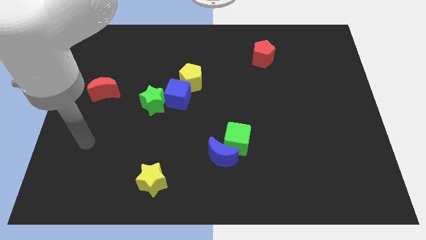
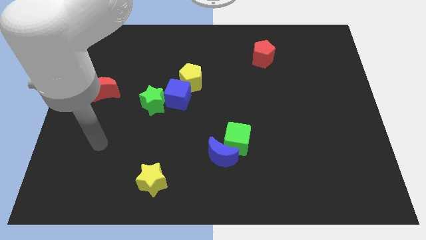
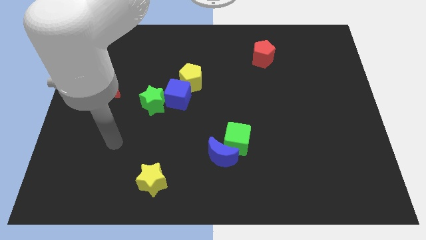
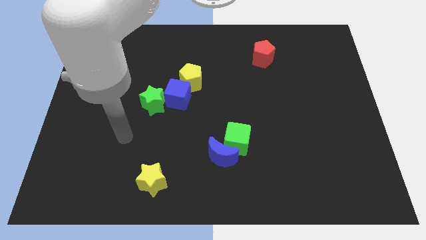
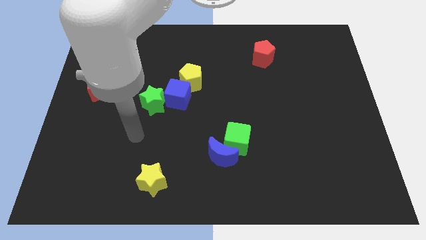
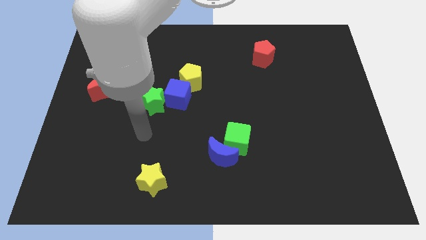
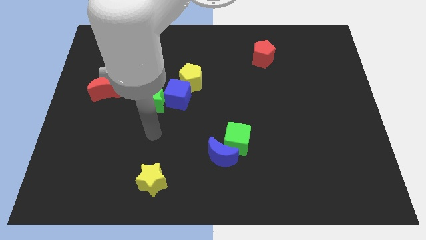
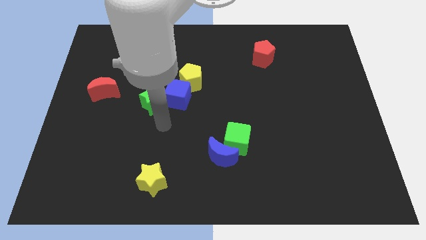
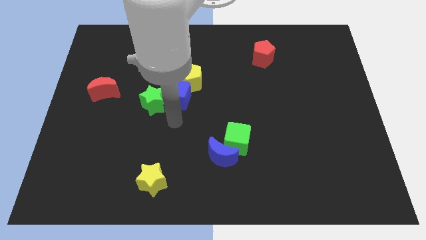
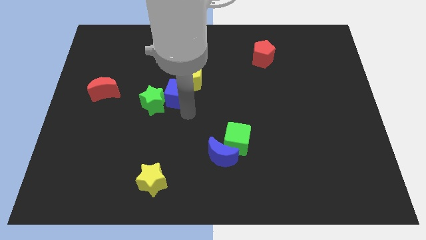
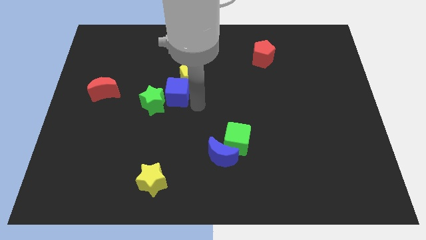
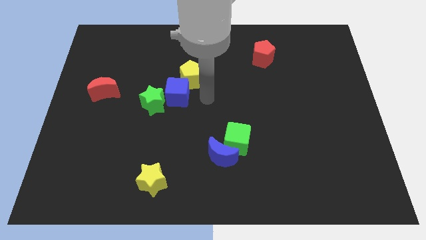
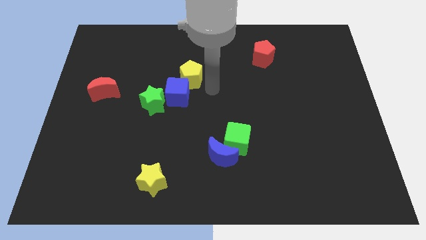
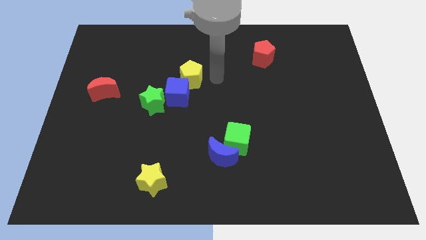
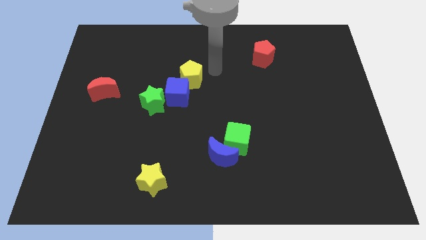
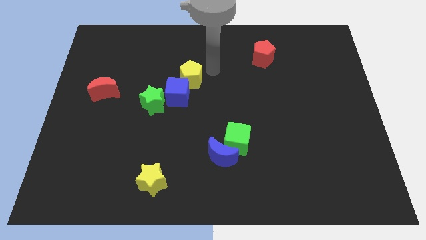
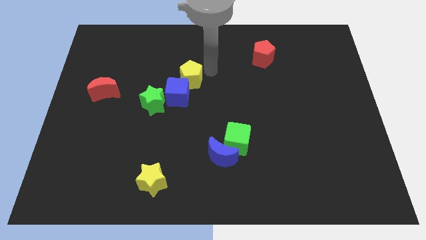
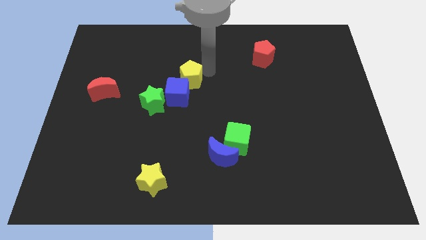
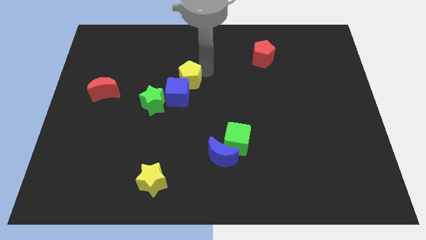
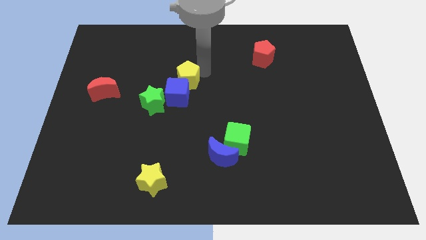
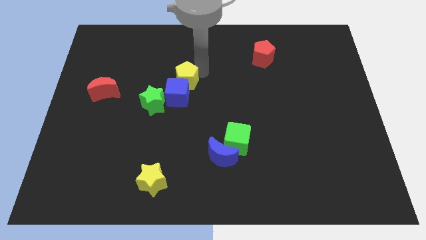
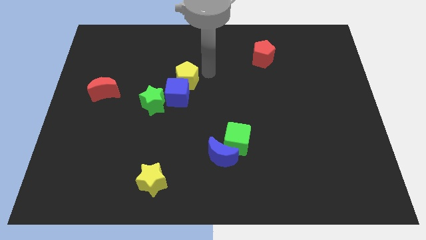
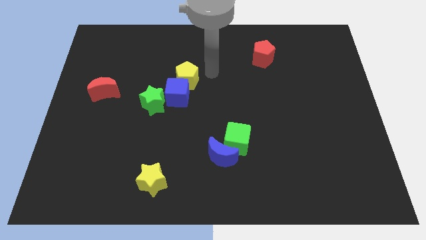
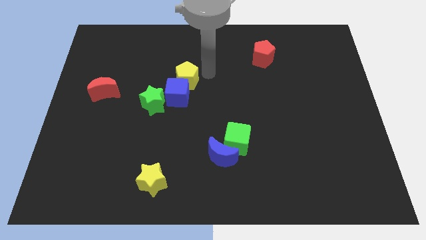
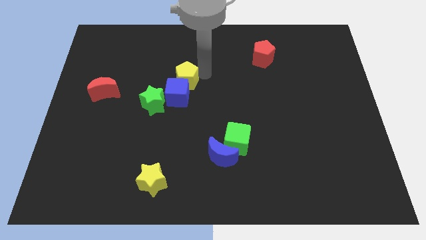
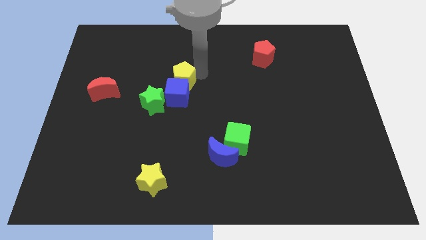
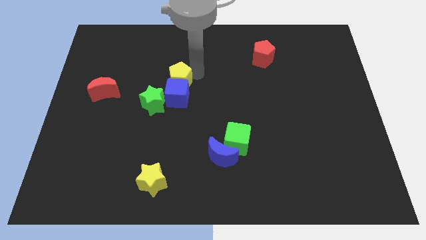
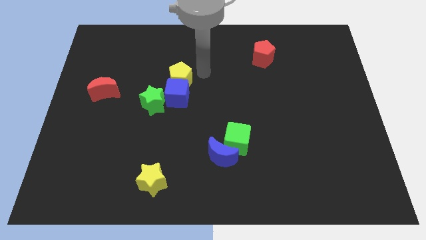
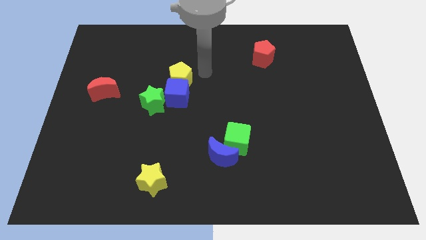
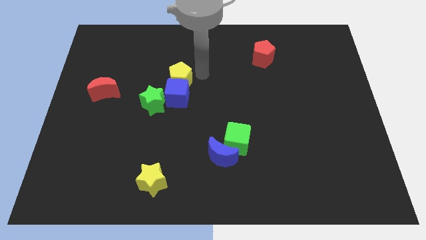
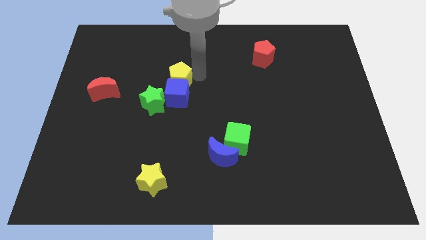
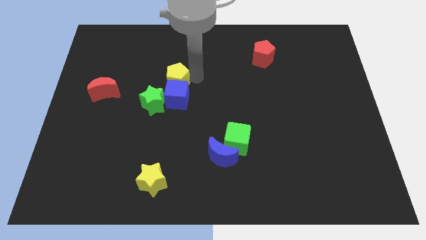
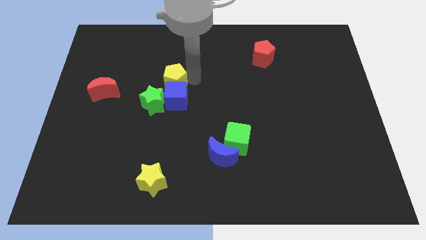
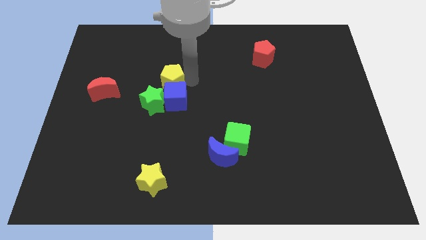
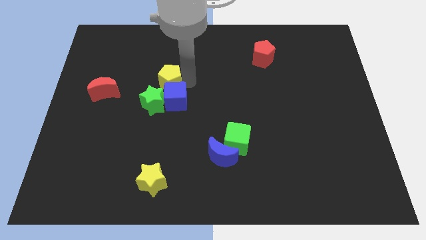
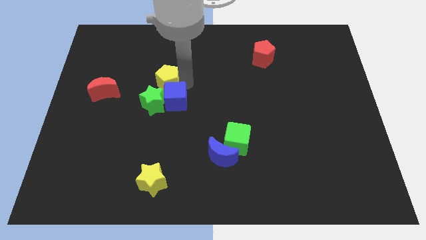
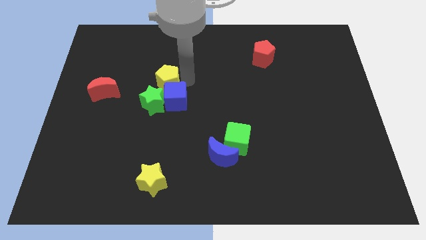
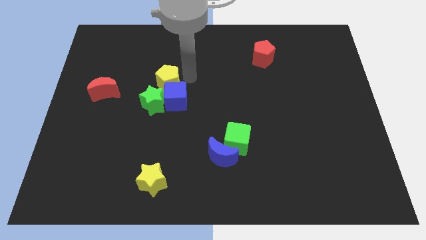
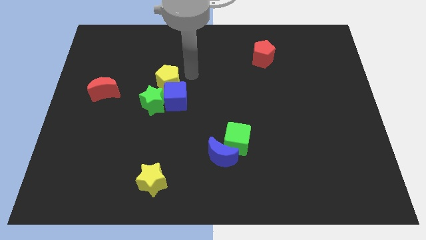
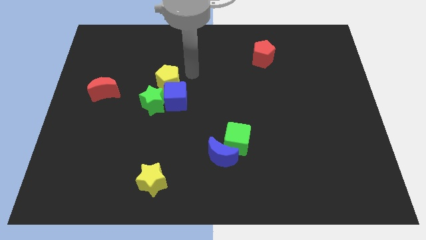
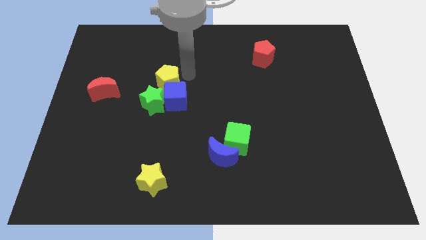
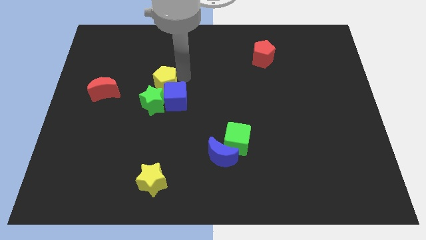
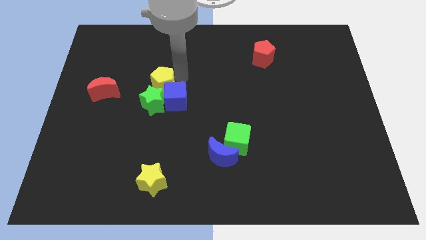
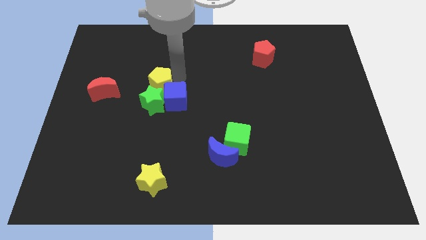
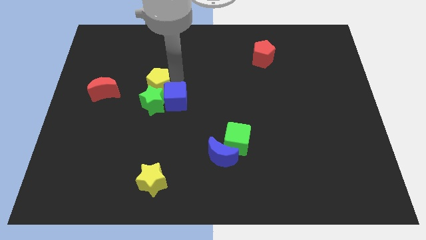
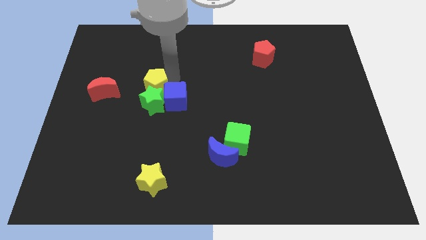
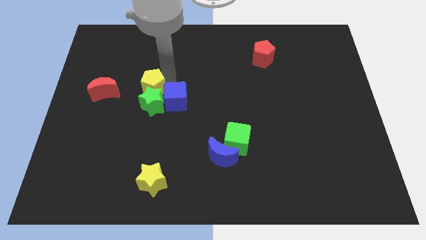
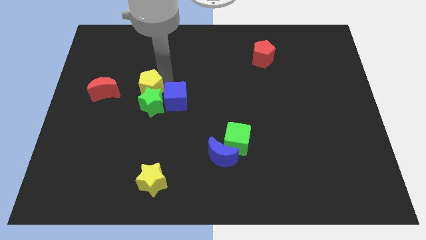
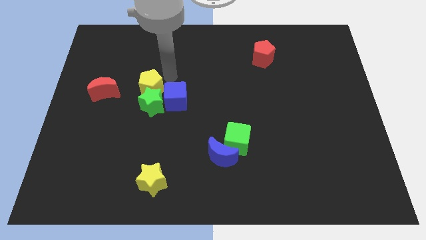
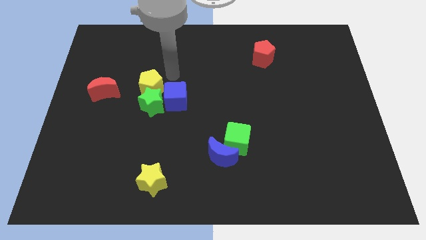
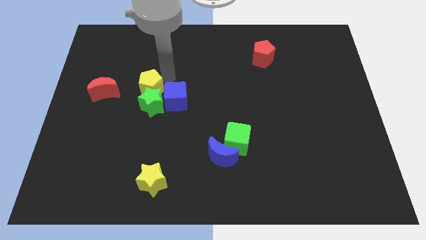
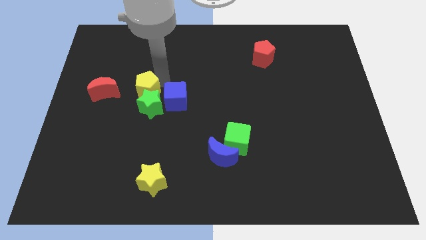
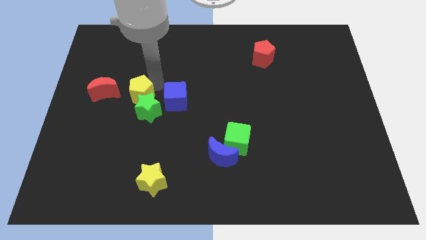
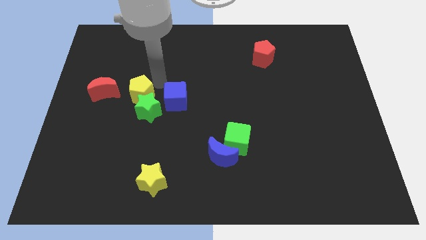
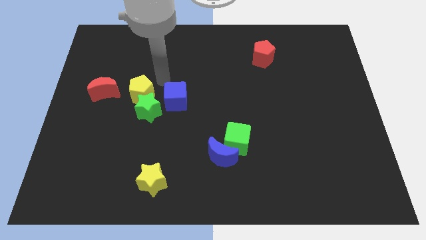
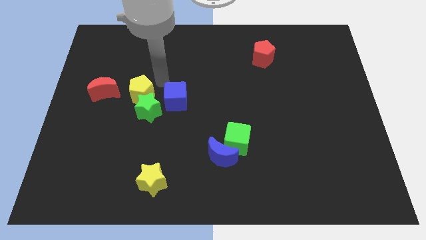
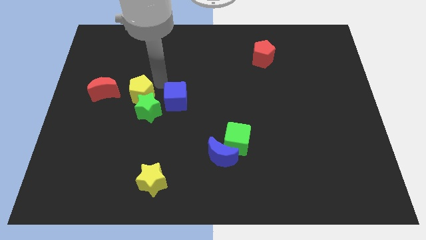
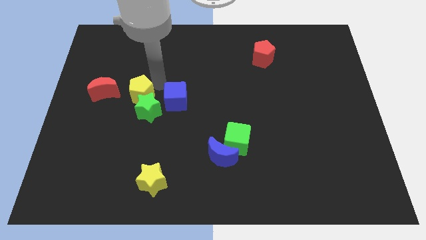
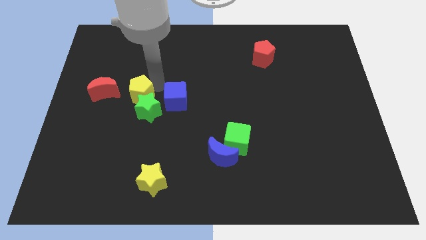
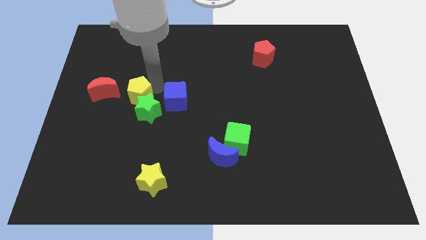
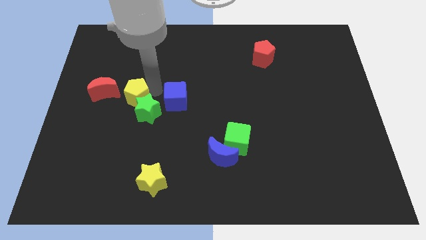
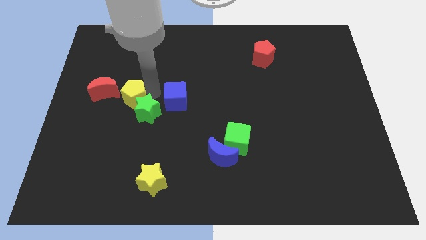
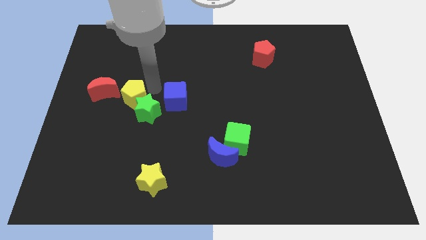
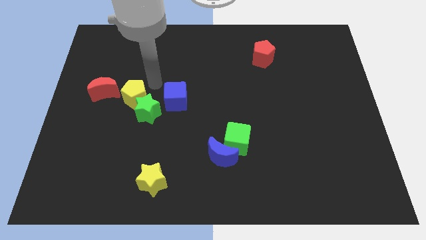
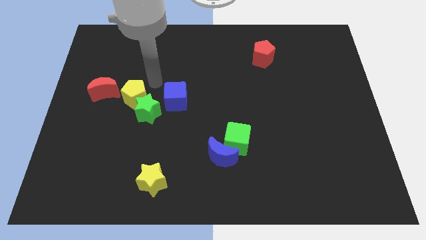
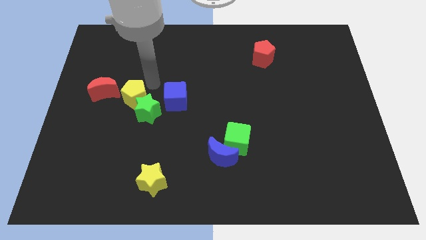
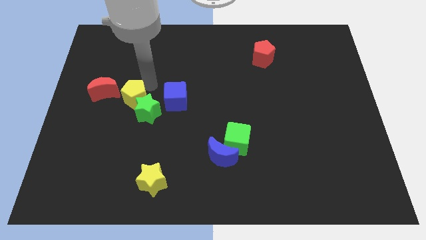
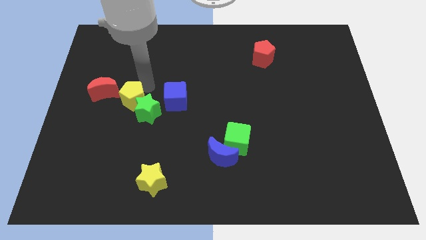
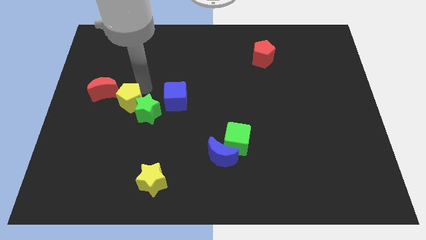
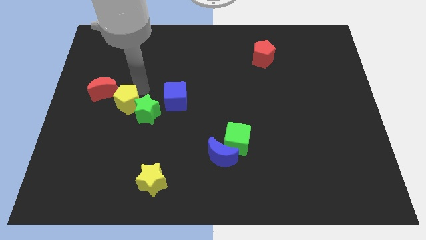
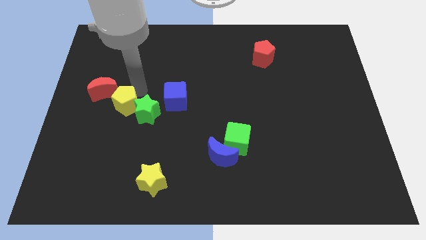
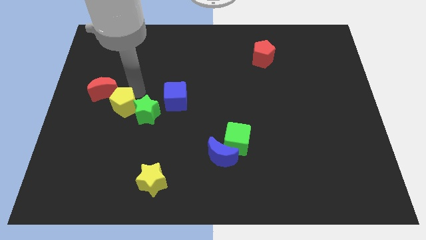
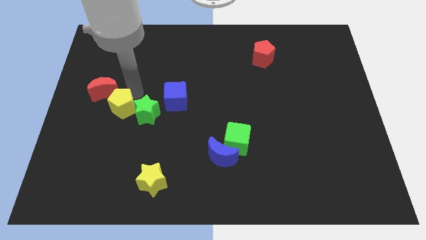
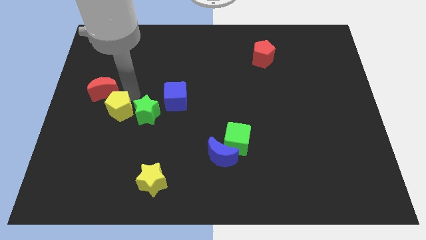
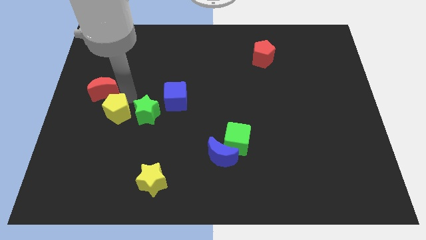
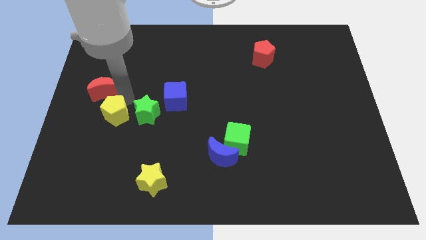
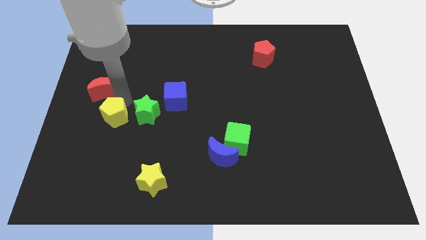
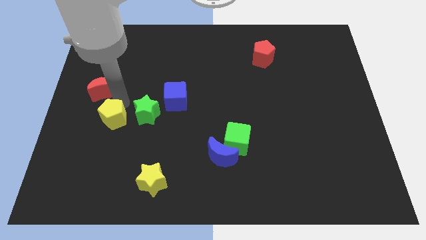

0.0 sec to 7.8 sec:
move the yellow pentagon downwards and then left

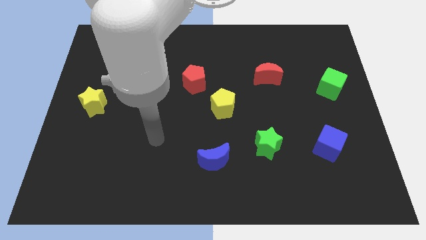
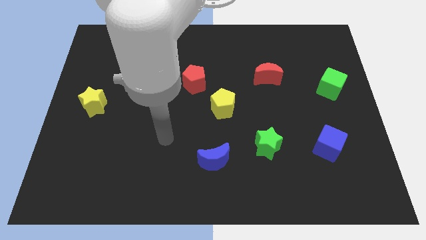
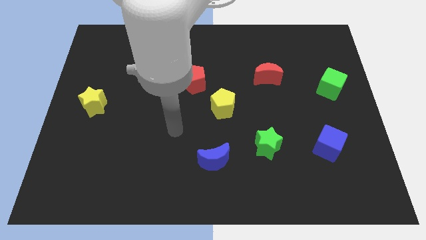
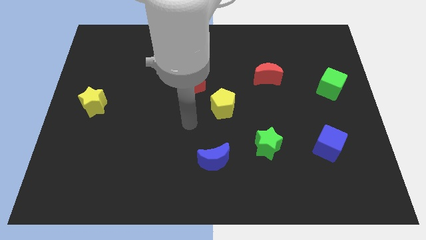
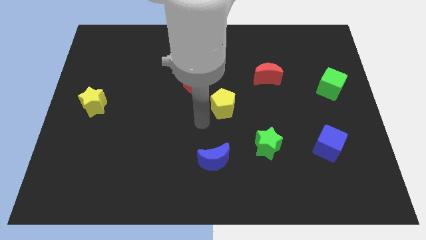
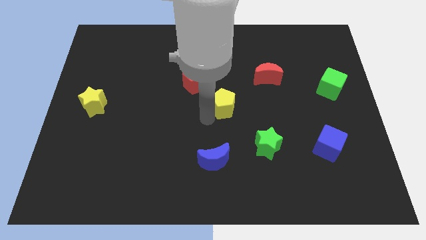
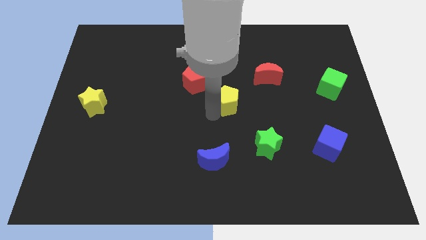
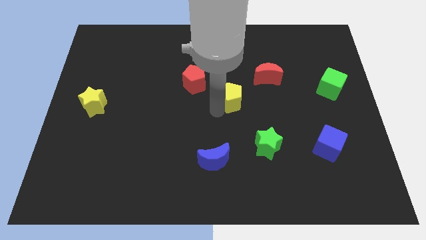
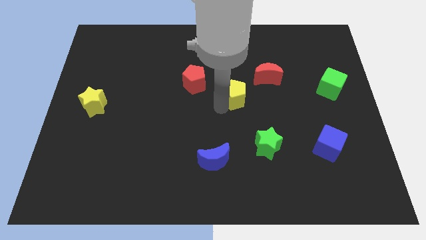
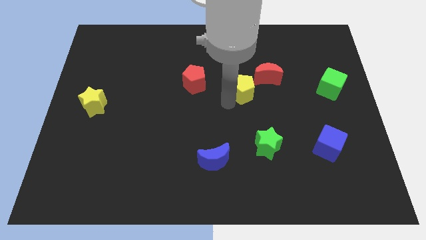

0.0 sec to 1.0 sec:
push the yellow pentagon diagonally up and to the right slightly
